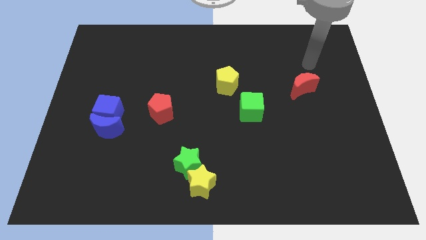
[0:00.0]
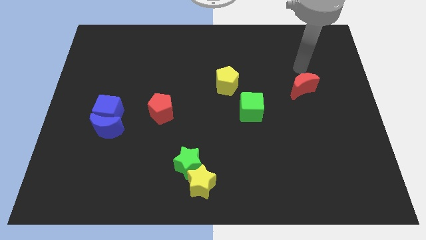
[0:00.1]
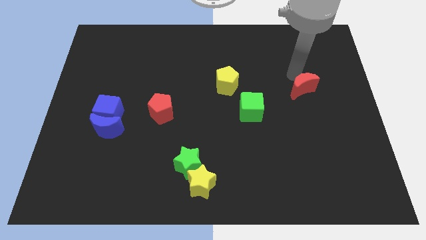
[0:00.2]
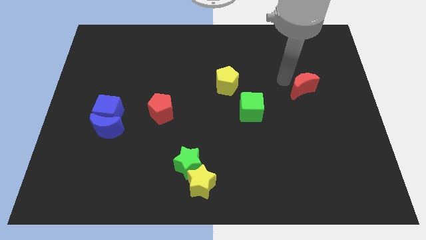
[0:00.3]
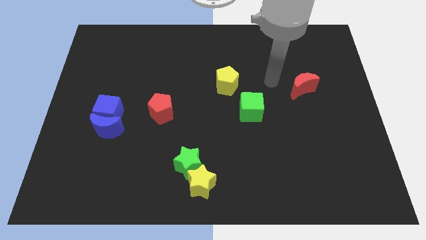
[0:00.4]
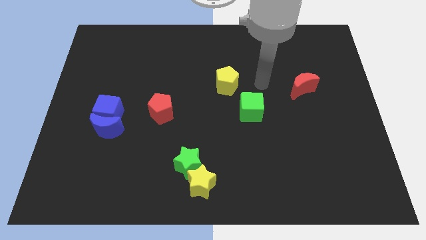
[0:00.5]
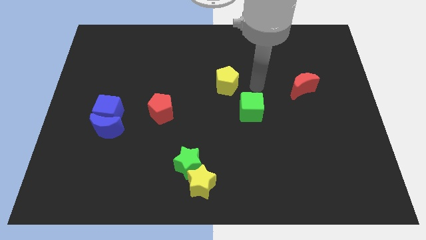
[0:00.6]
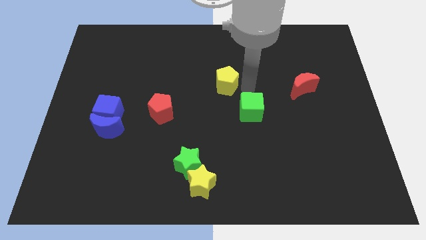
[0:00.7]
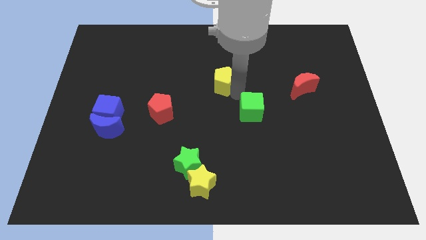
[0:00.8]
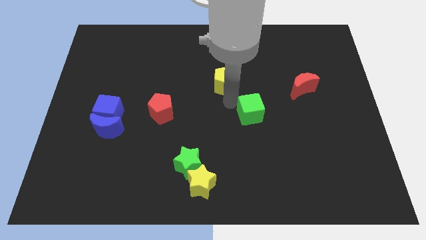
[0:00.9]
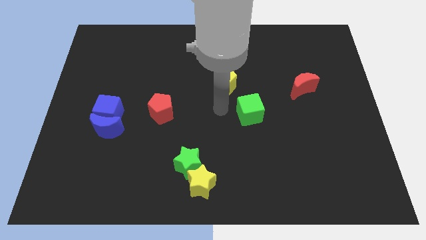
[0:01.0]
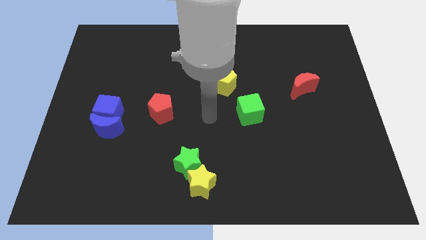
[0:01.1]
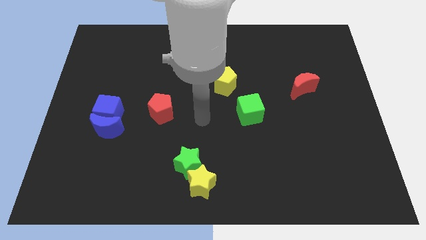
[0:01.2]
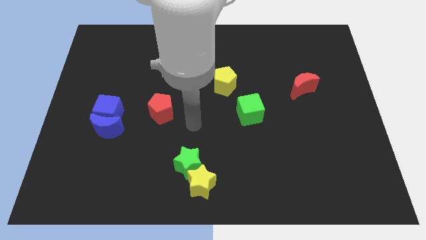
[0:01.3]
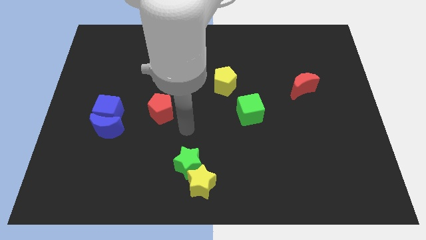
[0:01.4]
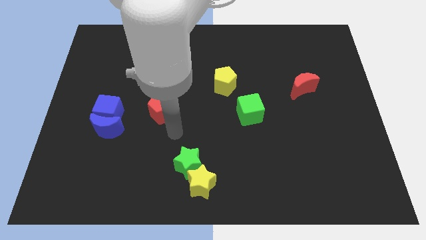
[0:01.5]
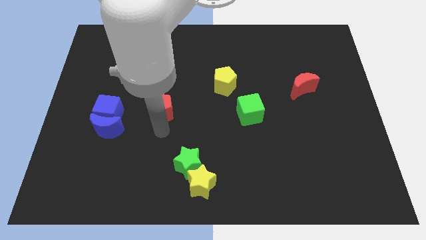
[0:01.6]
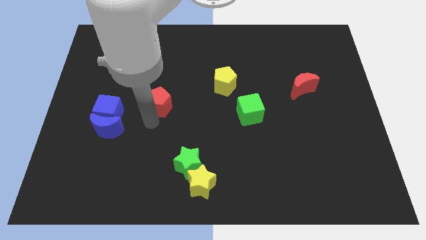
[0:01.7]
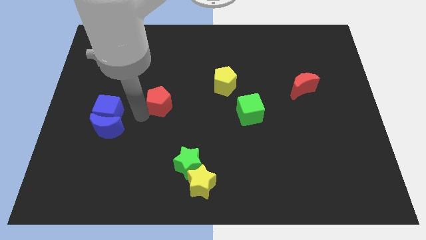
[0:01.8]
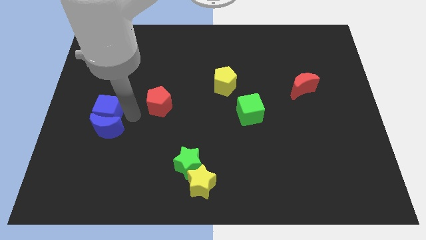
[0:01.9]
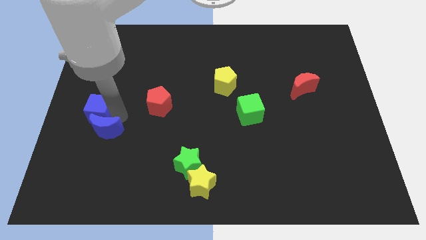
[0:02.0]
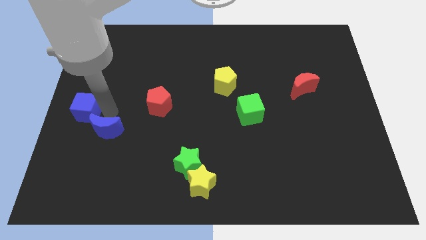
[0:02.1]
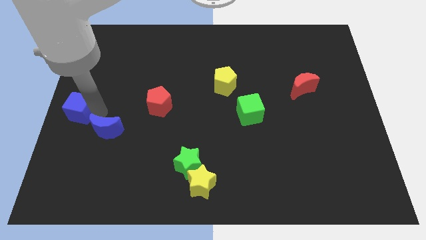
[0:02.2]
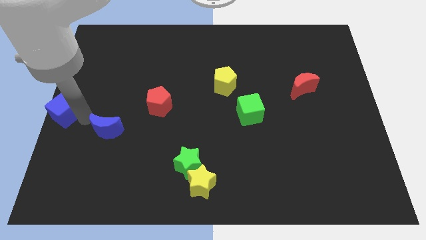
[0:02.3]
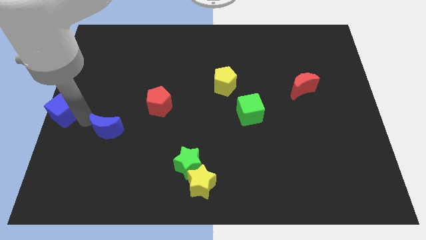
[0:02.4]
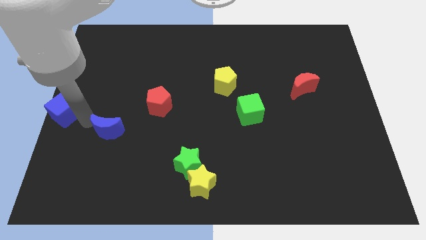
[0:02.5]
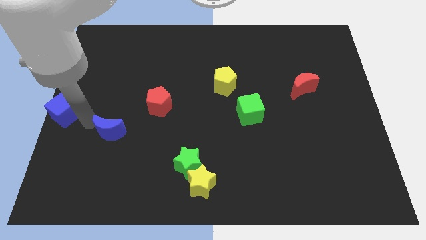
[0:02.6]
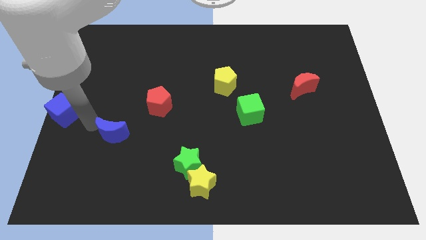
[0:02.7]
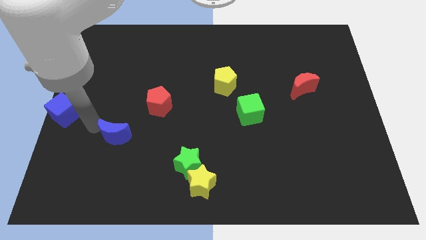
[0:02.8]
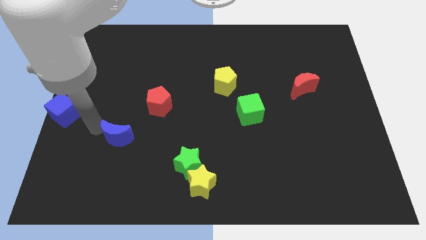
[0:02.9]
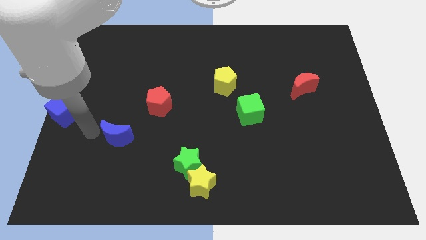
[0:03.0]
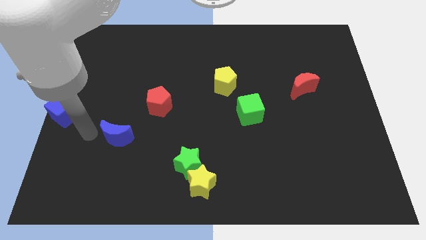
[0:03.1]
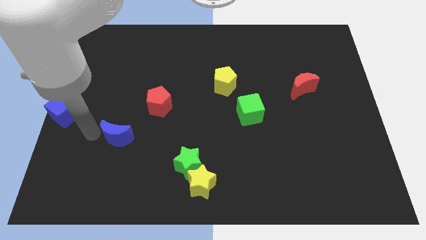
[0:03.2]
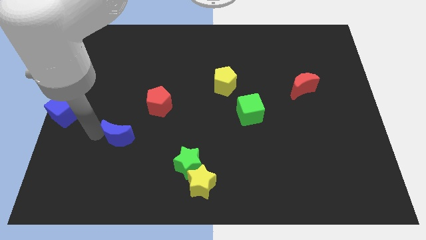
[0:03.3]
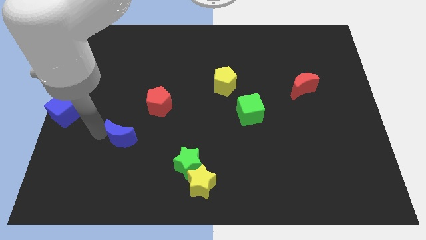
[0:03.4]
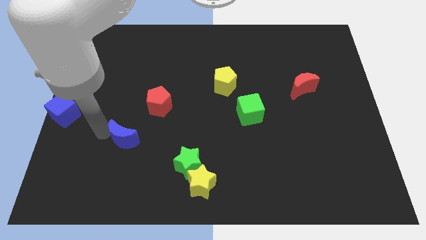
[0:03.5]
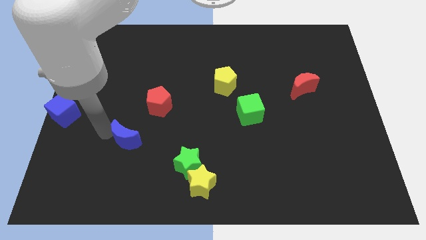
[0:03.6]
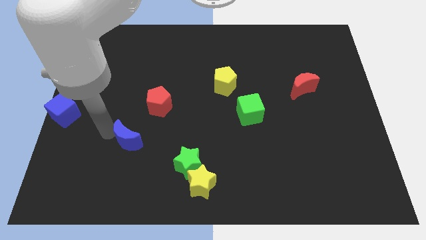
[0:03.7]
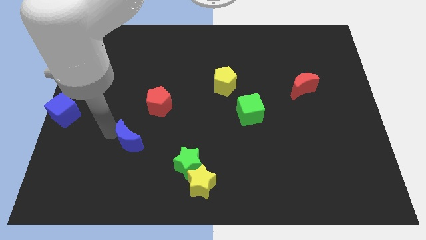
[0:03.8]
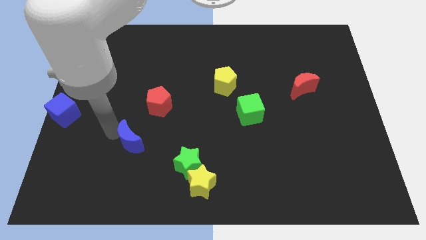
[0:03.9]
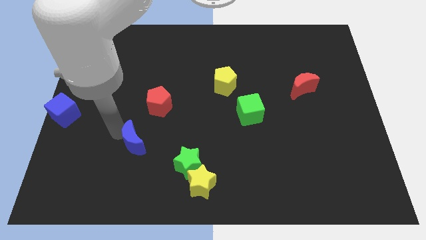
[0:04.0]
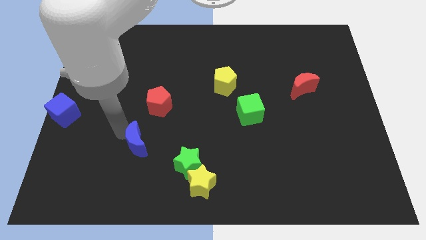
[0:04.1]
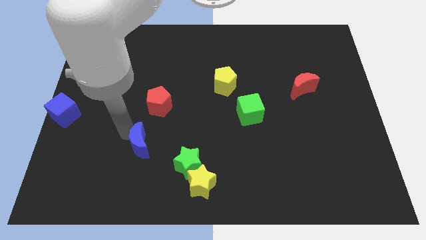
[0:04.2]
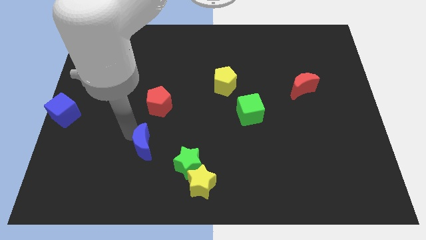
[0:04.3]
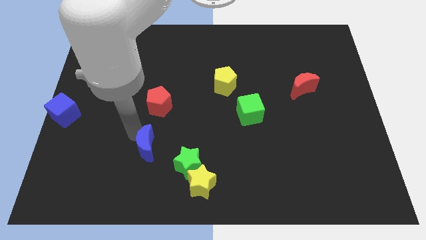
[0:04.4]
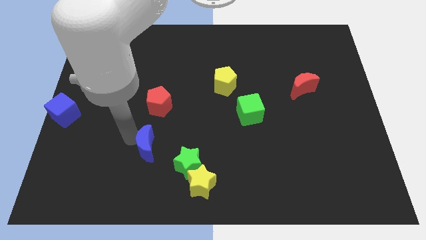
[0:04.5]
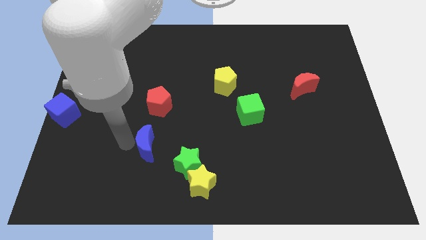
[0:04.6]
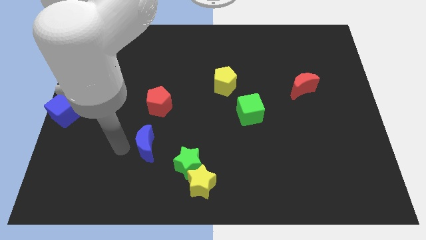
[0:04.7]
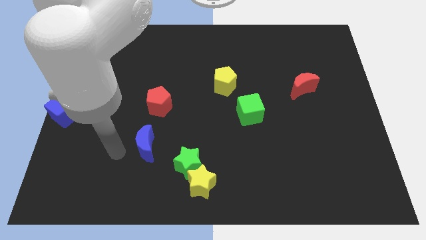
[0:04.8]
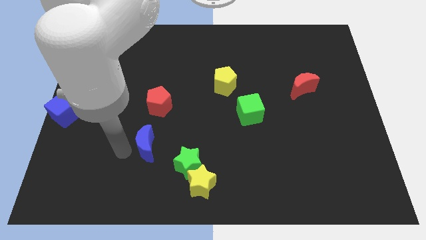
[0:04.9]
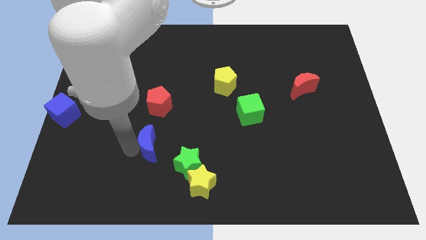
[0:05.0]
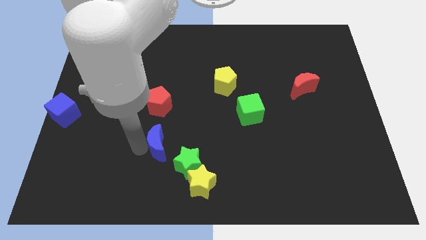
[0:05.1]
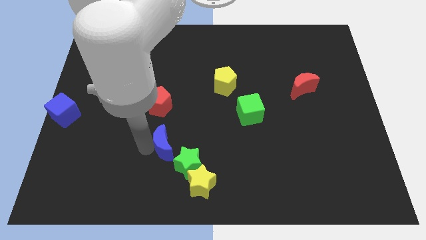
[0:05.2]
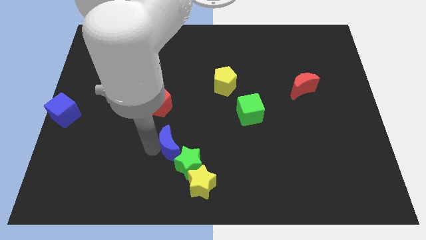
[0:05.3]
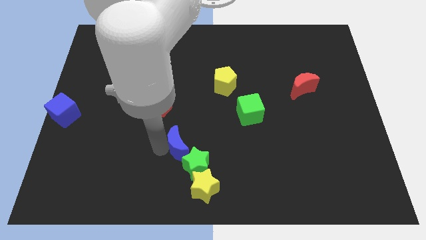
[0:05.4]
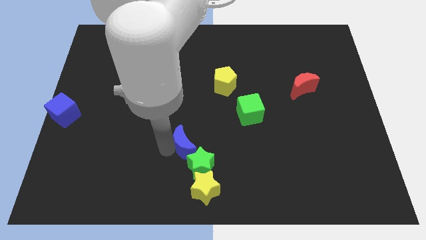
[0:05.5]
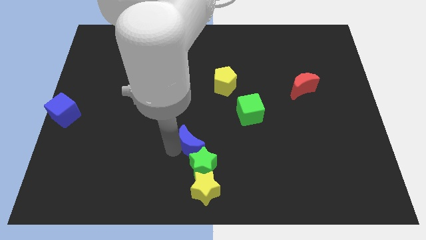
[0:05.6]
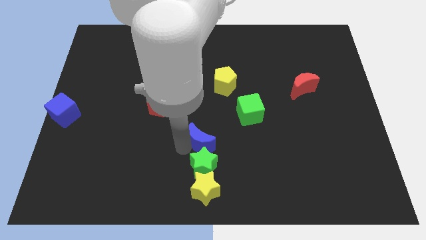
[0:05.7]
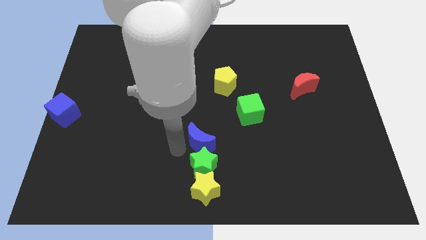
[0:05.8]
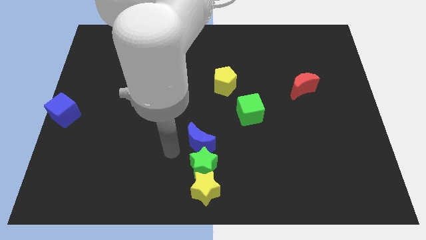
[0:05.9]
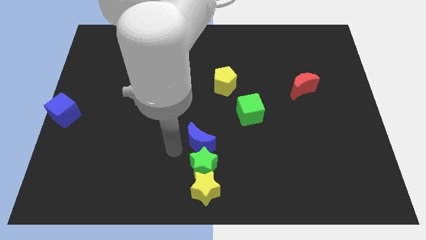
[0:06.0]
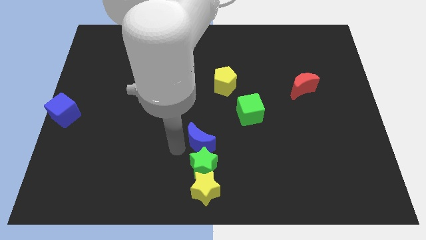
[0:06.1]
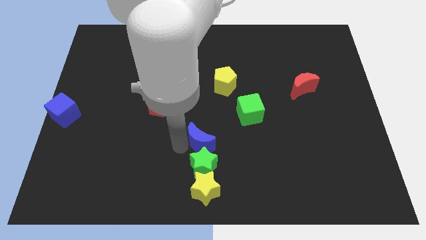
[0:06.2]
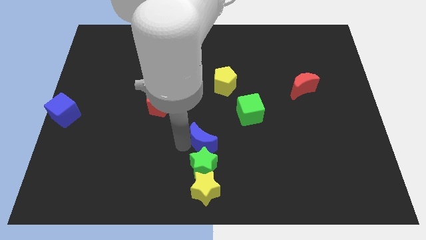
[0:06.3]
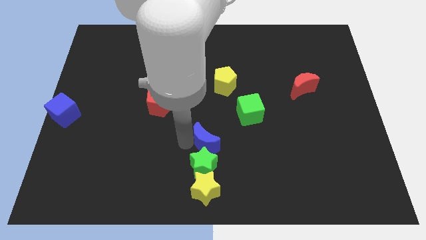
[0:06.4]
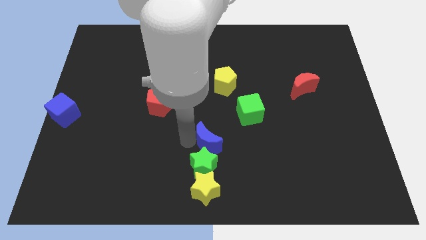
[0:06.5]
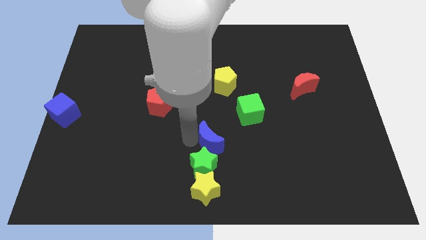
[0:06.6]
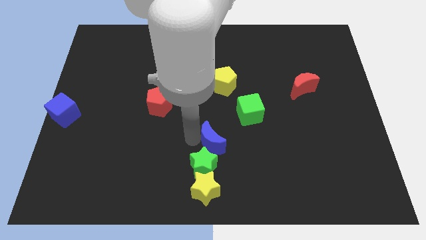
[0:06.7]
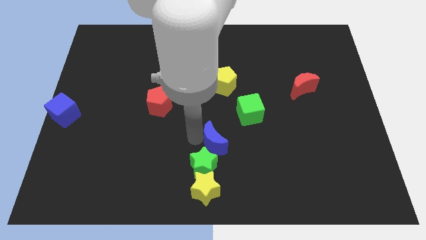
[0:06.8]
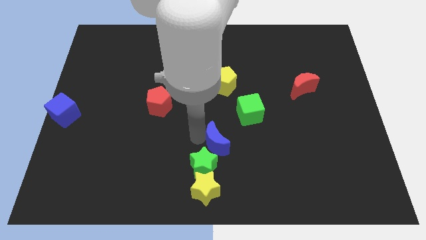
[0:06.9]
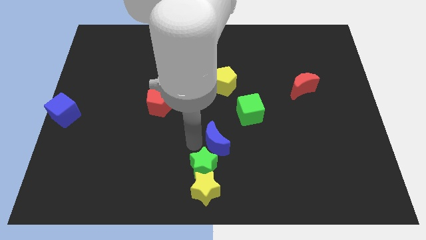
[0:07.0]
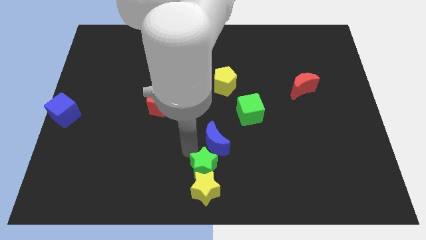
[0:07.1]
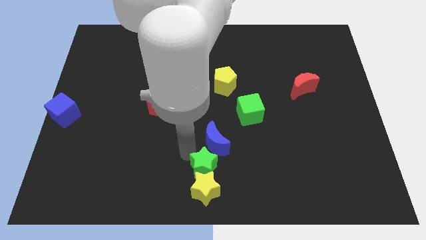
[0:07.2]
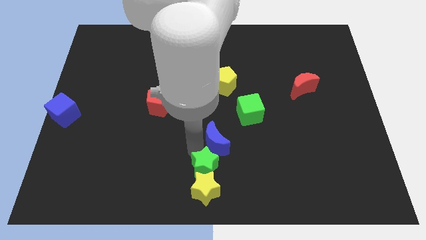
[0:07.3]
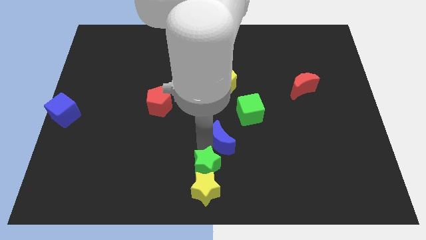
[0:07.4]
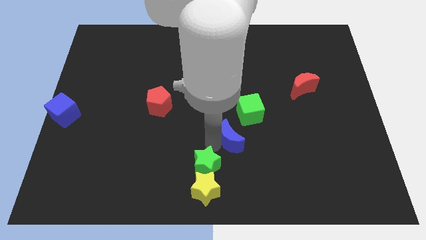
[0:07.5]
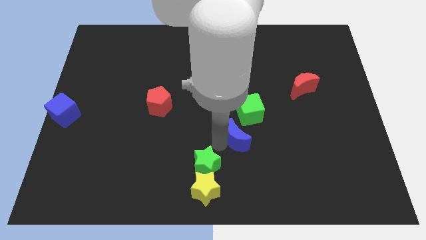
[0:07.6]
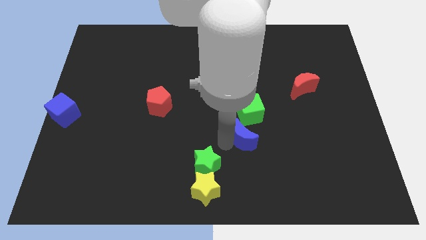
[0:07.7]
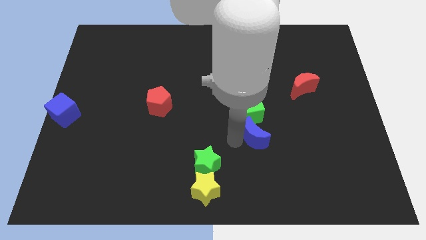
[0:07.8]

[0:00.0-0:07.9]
push the blue moon to the bottom right of the green cube
